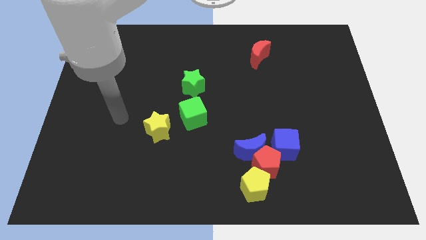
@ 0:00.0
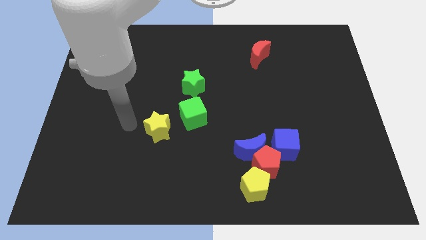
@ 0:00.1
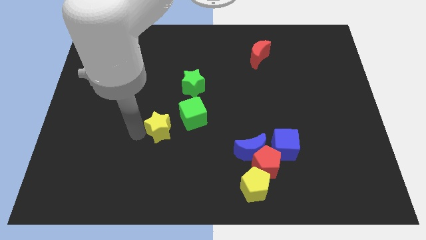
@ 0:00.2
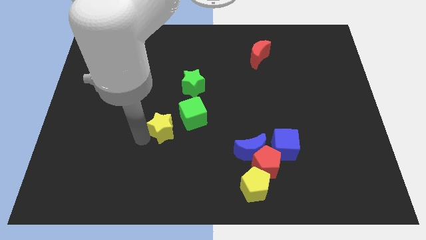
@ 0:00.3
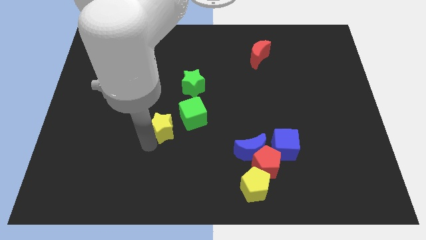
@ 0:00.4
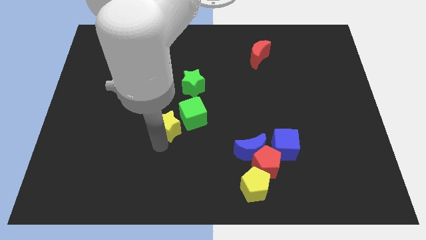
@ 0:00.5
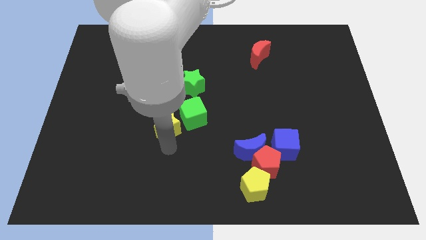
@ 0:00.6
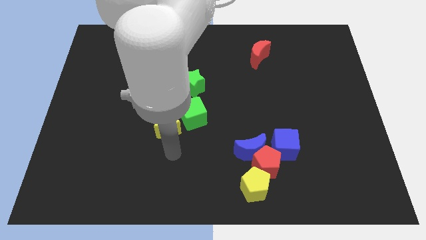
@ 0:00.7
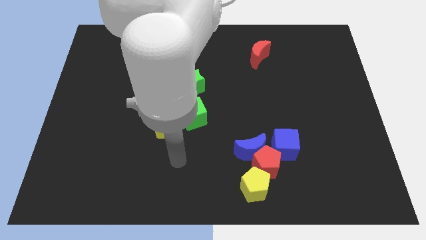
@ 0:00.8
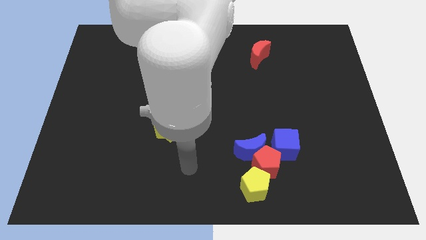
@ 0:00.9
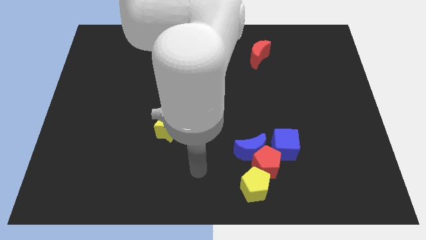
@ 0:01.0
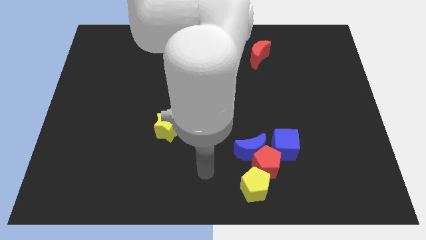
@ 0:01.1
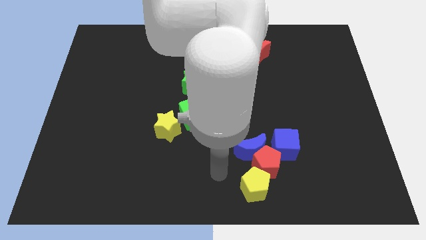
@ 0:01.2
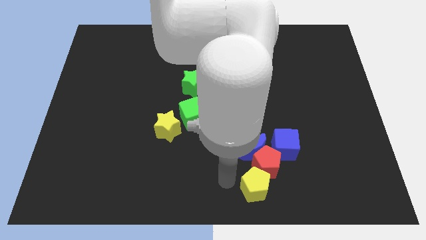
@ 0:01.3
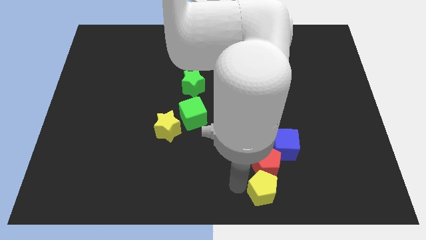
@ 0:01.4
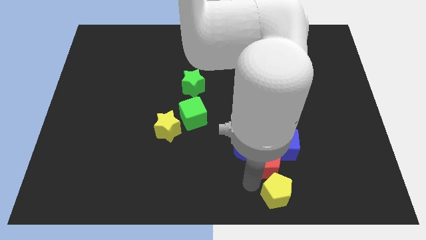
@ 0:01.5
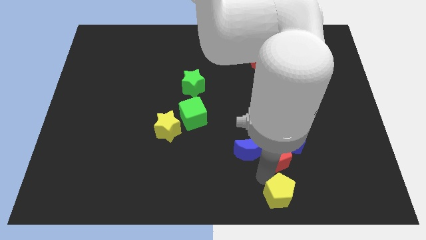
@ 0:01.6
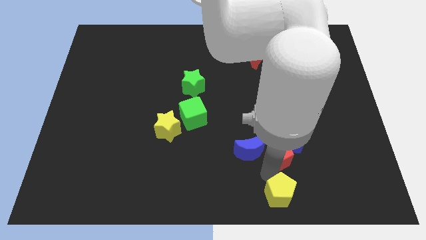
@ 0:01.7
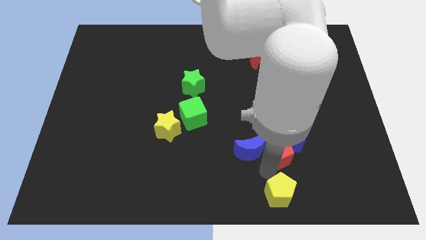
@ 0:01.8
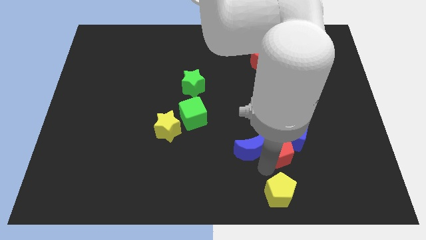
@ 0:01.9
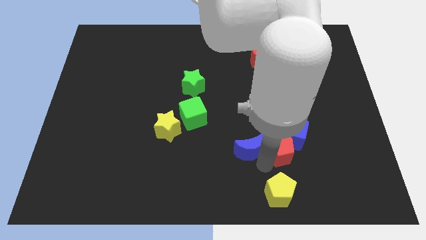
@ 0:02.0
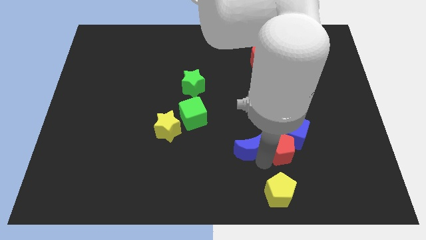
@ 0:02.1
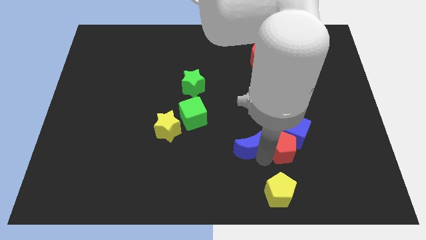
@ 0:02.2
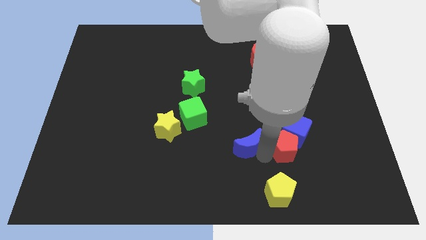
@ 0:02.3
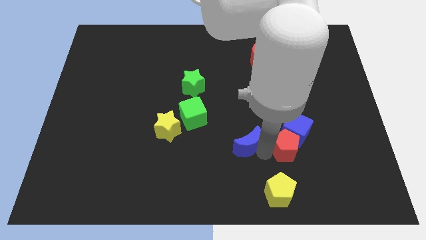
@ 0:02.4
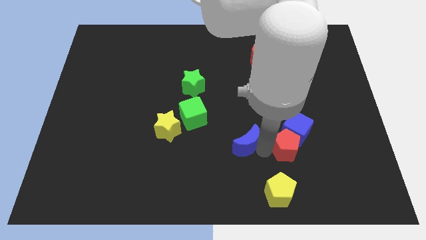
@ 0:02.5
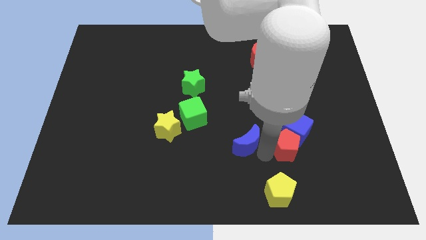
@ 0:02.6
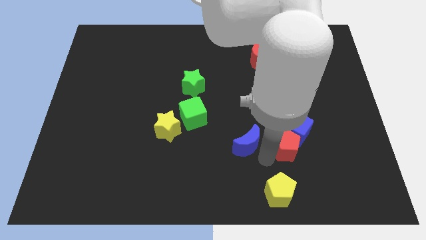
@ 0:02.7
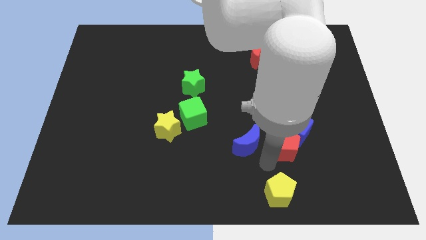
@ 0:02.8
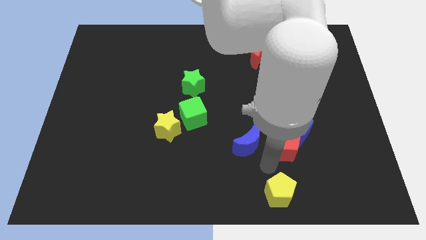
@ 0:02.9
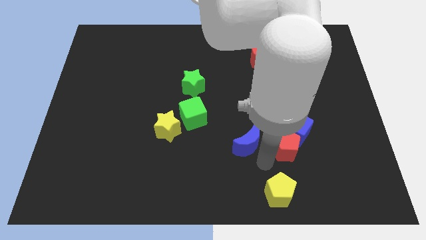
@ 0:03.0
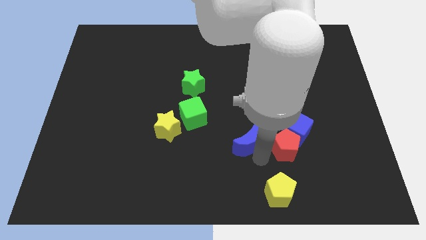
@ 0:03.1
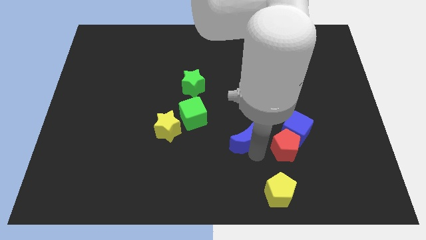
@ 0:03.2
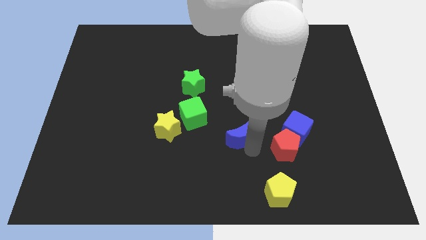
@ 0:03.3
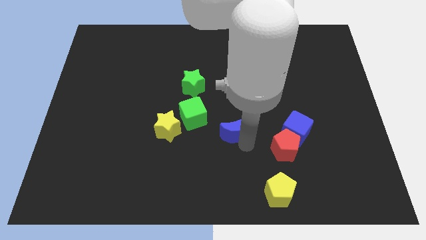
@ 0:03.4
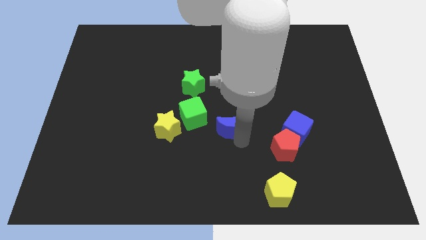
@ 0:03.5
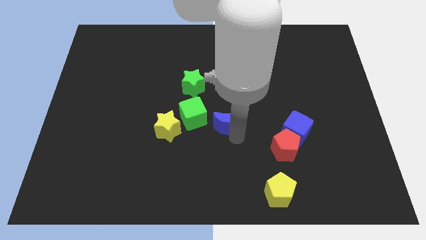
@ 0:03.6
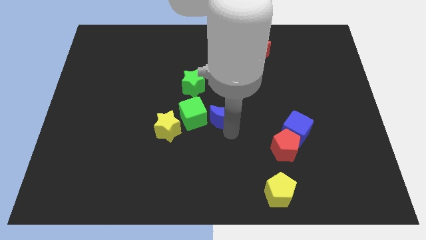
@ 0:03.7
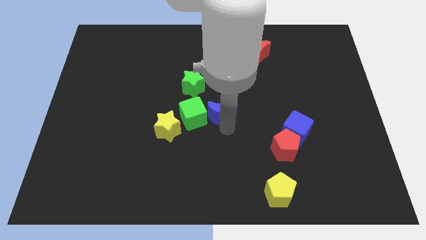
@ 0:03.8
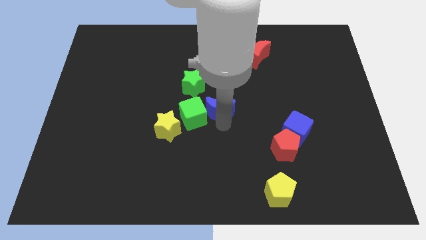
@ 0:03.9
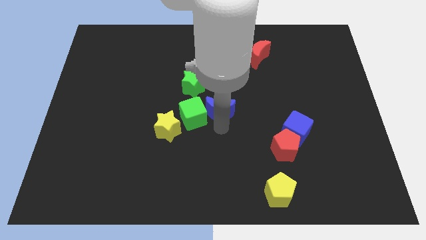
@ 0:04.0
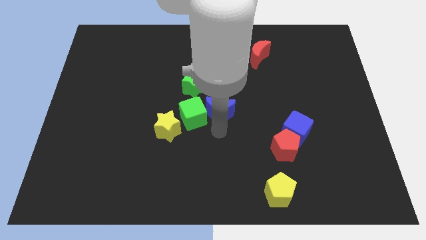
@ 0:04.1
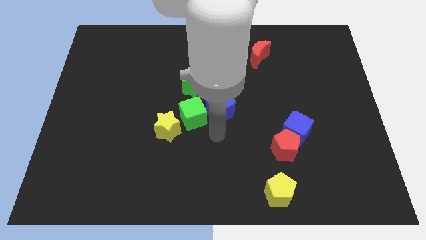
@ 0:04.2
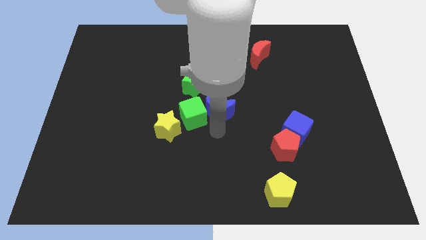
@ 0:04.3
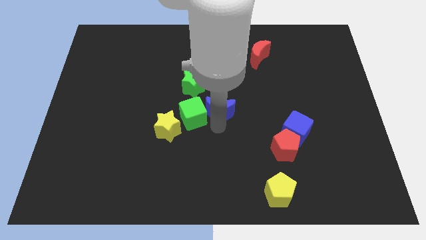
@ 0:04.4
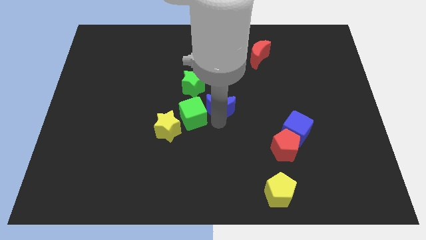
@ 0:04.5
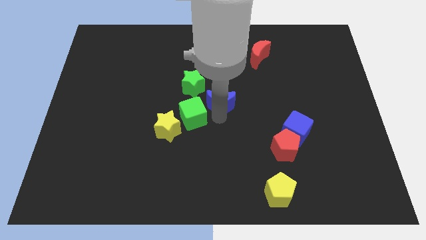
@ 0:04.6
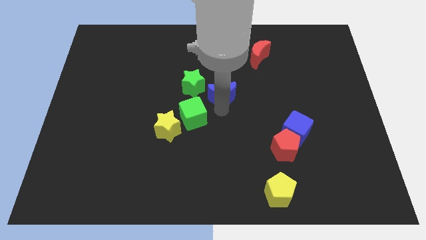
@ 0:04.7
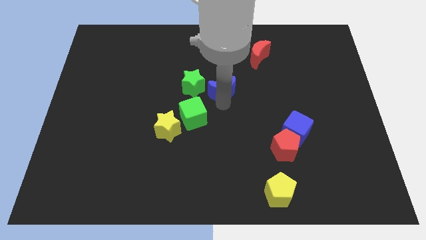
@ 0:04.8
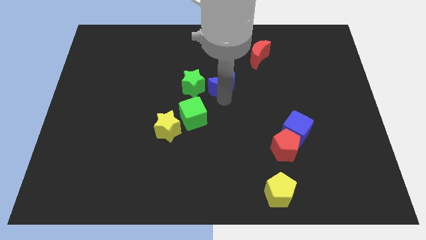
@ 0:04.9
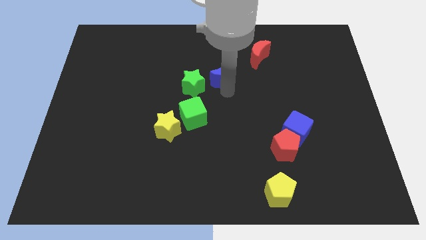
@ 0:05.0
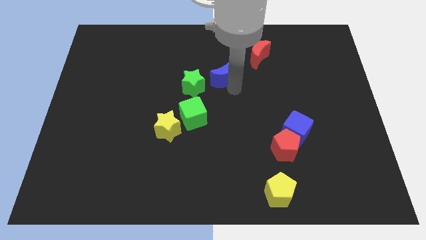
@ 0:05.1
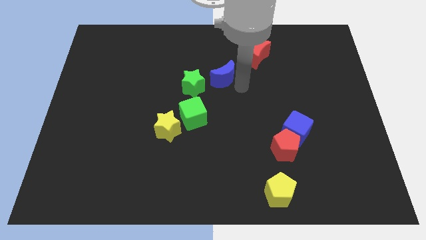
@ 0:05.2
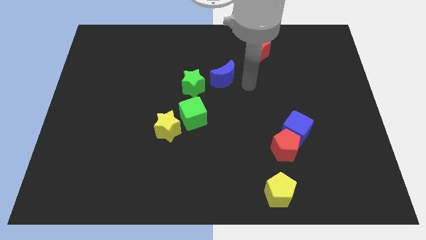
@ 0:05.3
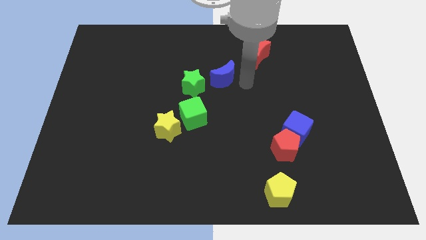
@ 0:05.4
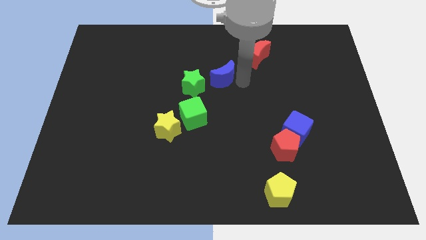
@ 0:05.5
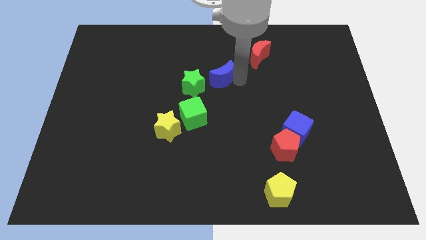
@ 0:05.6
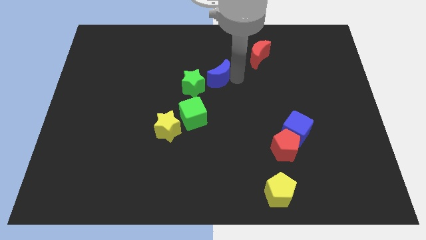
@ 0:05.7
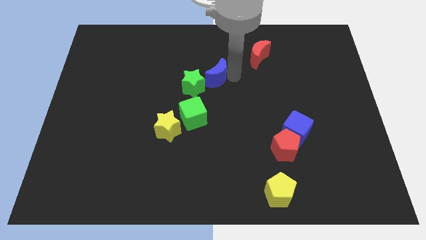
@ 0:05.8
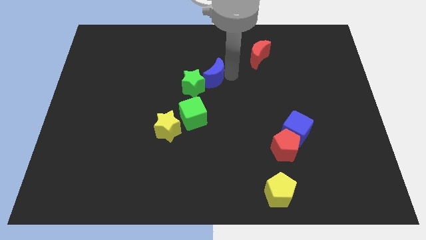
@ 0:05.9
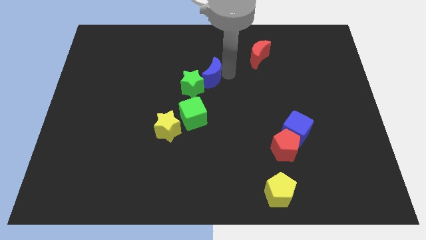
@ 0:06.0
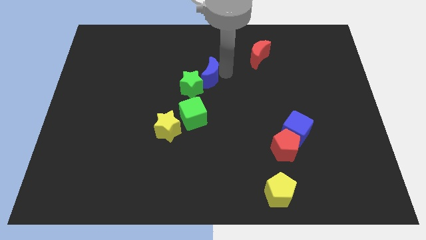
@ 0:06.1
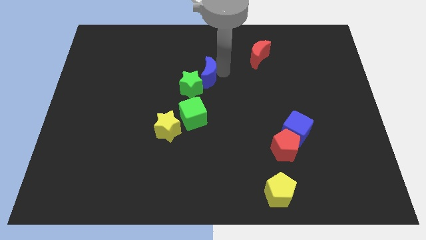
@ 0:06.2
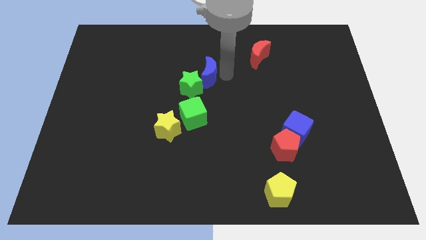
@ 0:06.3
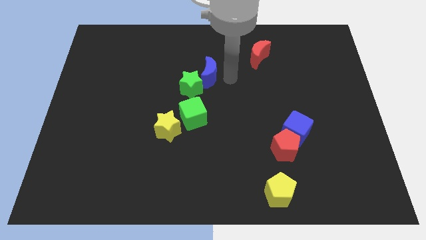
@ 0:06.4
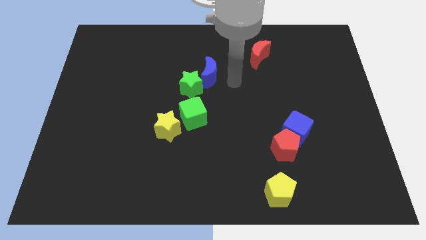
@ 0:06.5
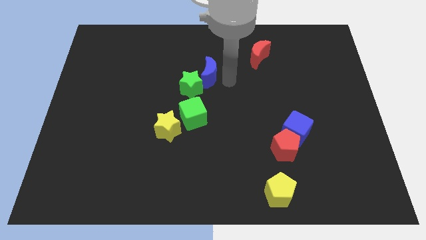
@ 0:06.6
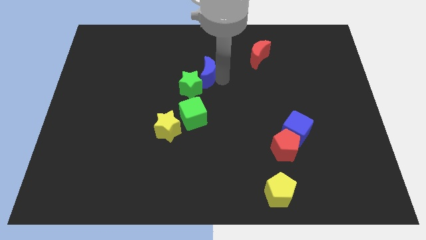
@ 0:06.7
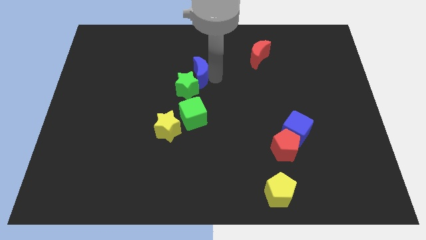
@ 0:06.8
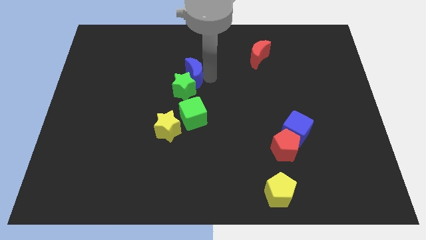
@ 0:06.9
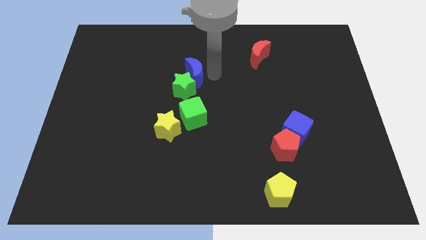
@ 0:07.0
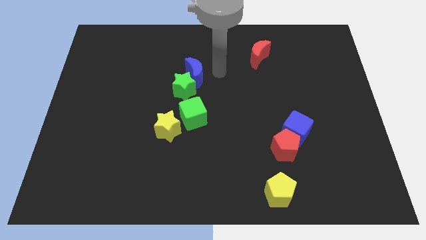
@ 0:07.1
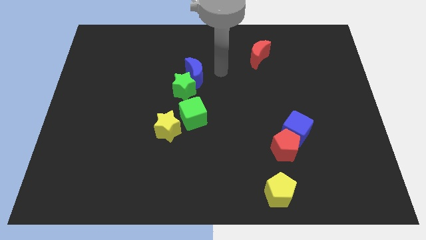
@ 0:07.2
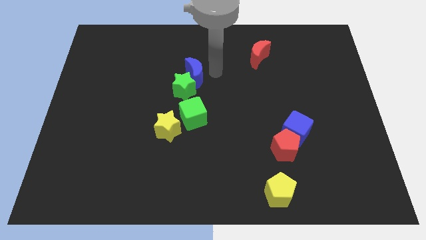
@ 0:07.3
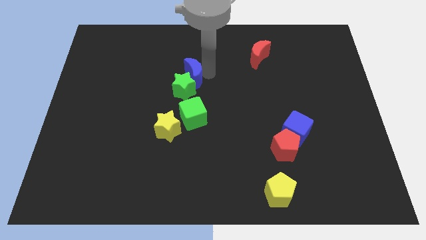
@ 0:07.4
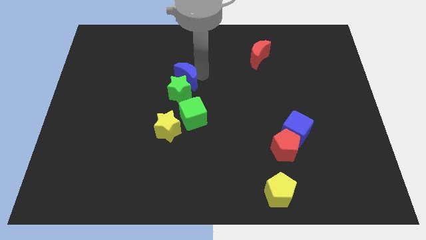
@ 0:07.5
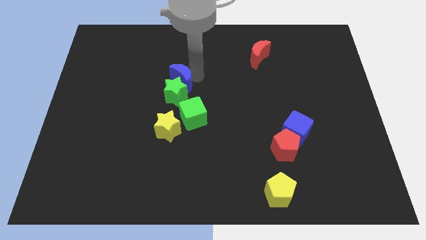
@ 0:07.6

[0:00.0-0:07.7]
slide the blue moon to the top side of the yellow star
